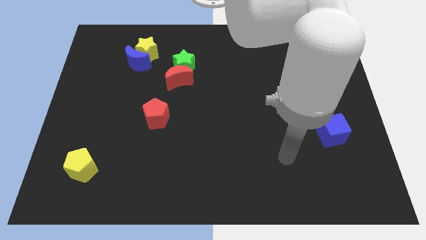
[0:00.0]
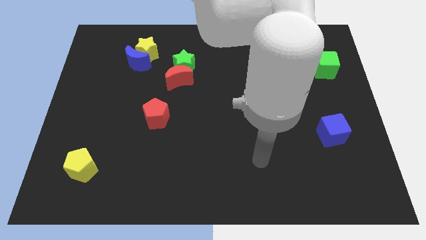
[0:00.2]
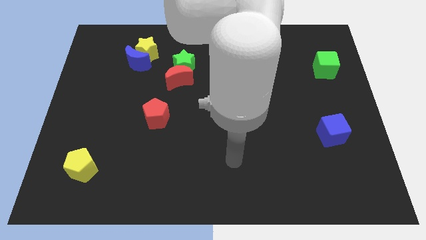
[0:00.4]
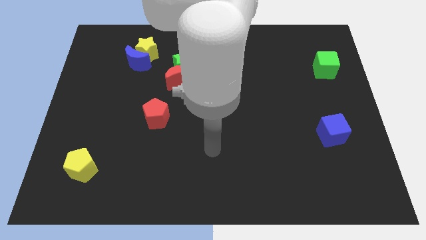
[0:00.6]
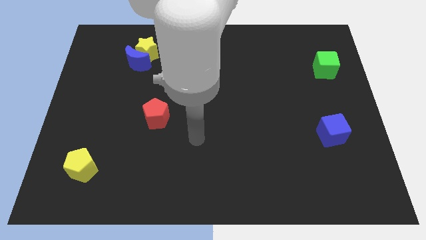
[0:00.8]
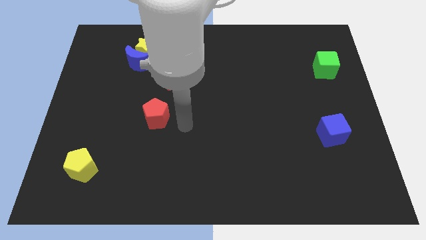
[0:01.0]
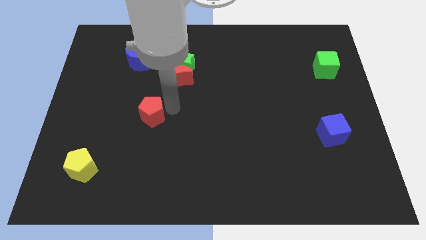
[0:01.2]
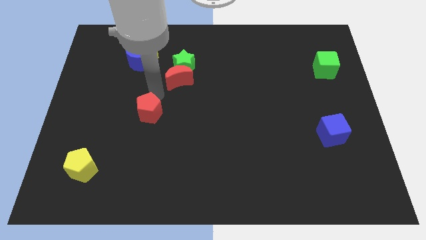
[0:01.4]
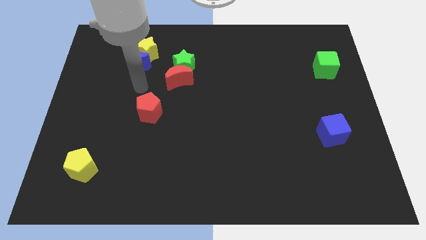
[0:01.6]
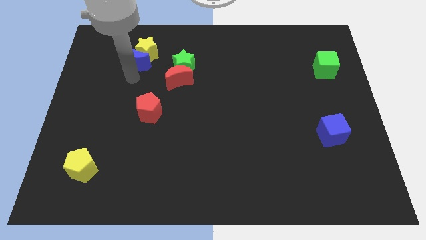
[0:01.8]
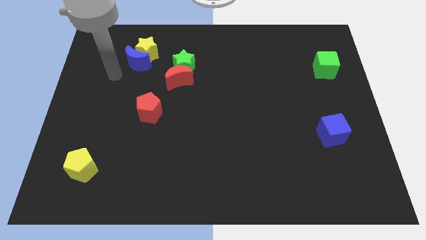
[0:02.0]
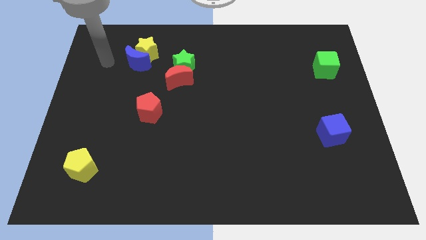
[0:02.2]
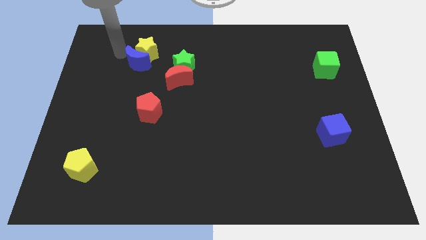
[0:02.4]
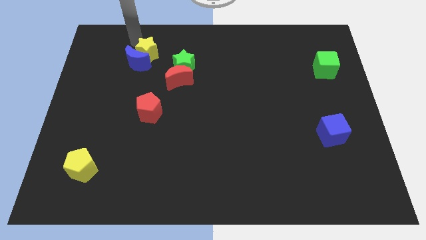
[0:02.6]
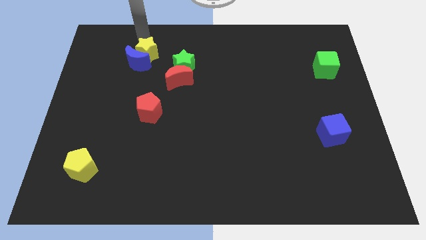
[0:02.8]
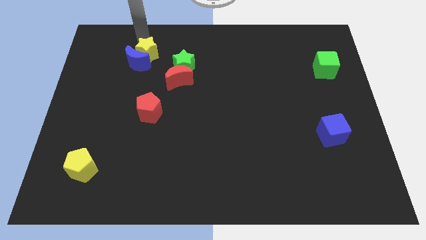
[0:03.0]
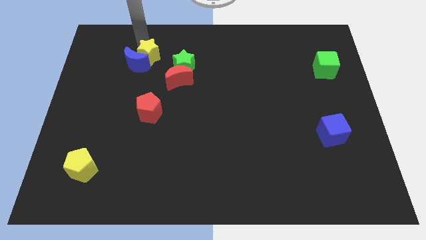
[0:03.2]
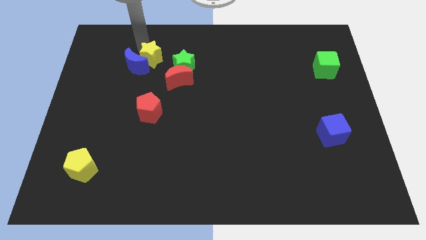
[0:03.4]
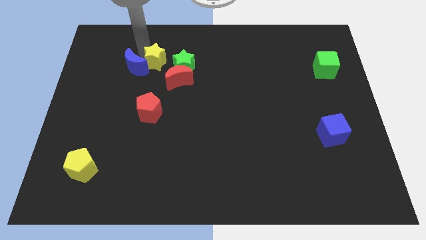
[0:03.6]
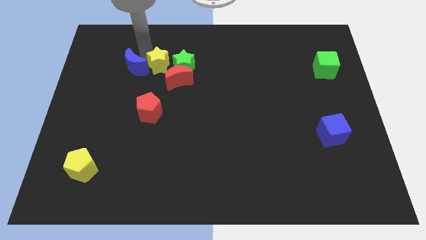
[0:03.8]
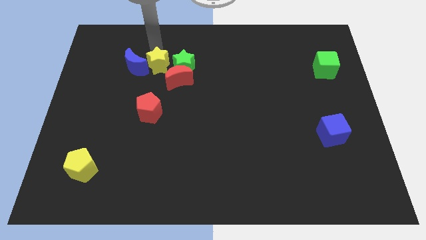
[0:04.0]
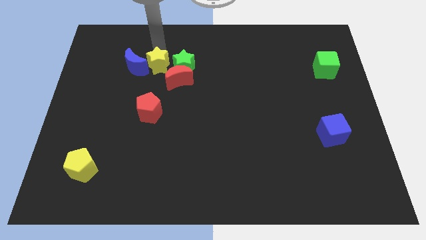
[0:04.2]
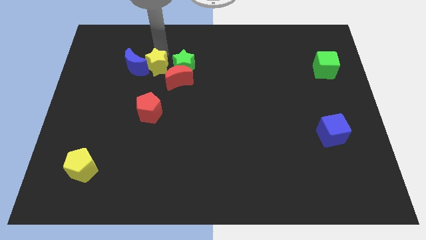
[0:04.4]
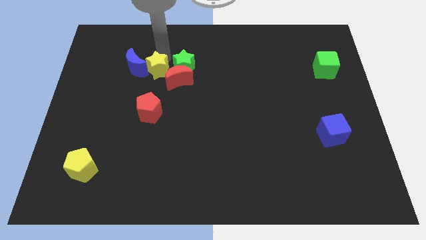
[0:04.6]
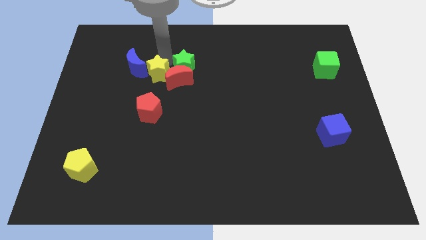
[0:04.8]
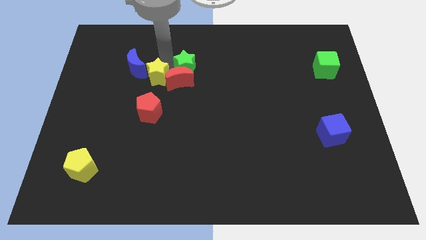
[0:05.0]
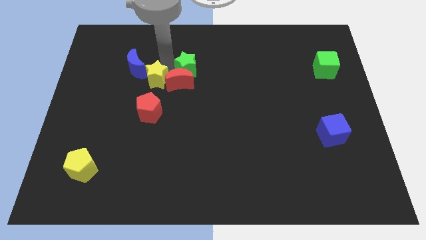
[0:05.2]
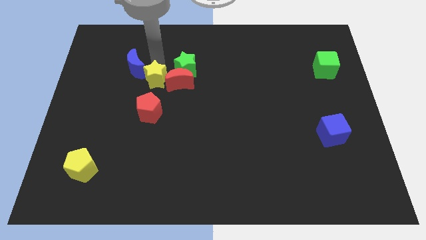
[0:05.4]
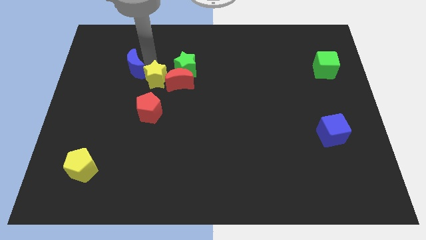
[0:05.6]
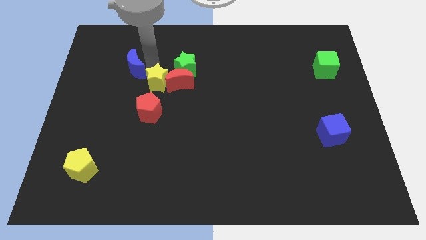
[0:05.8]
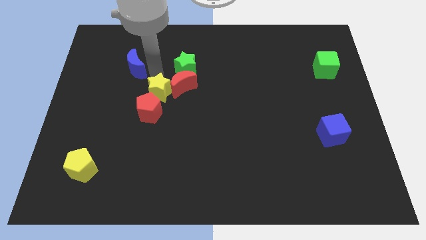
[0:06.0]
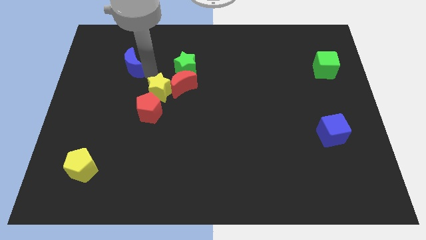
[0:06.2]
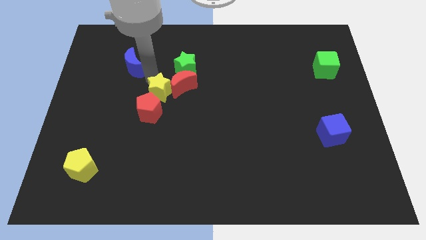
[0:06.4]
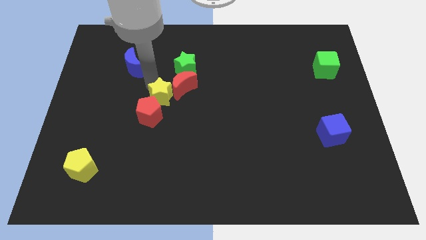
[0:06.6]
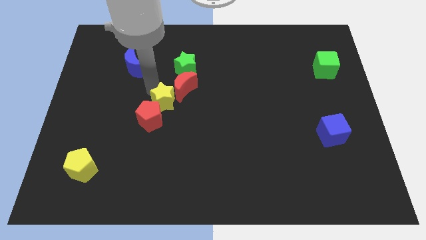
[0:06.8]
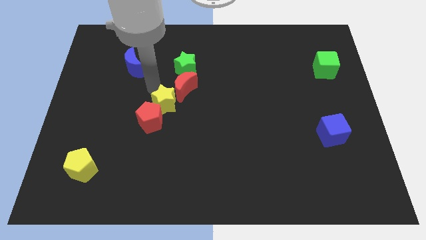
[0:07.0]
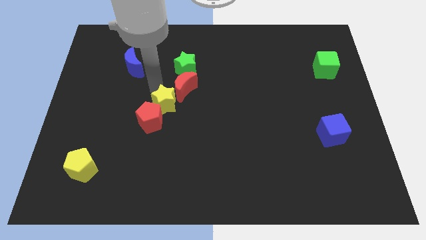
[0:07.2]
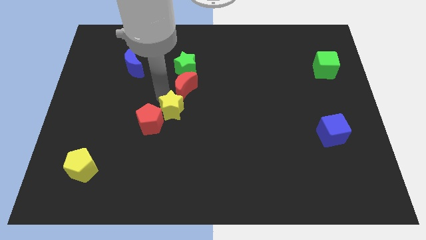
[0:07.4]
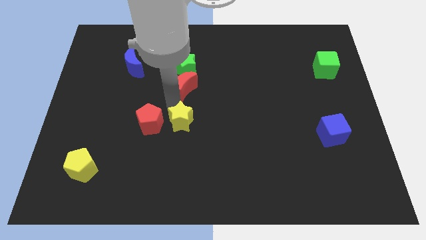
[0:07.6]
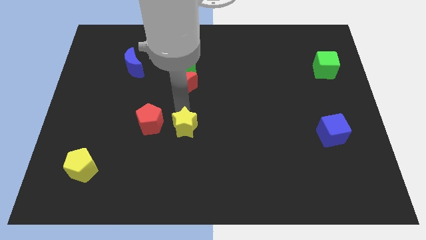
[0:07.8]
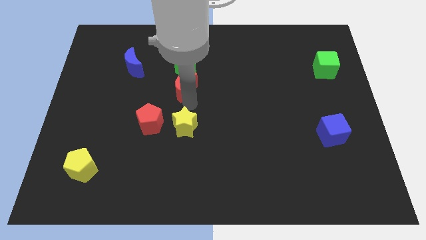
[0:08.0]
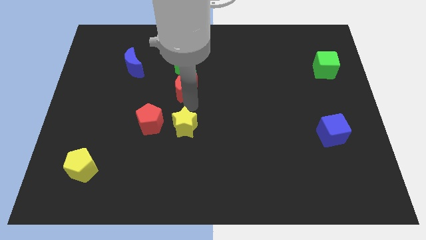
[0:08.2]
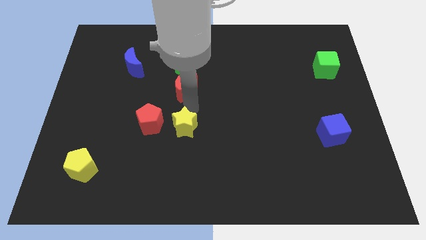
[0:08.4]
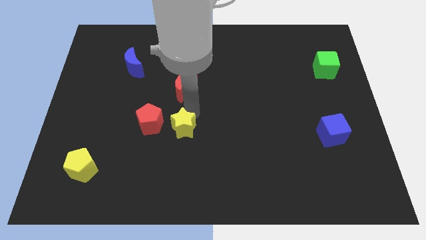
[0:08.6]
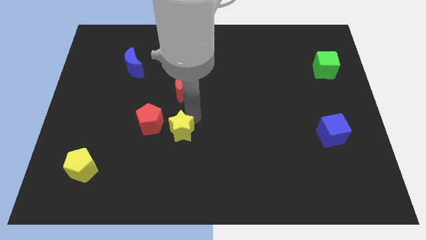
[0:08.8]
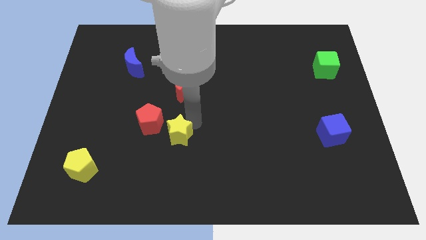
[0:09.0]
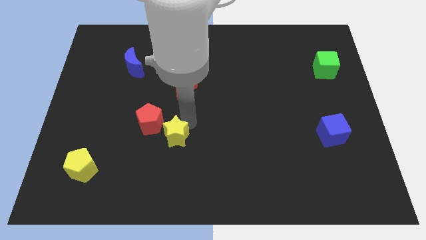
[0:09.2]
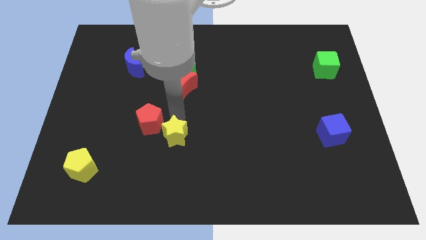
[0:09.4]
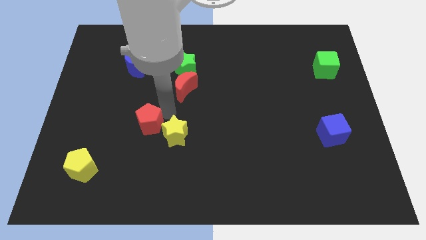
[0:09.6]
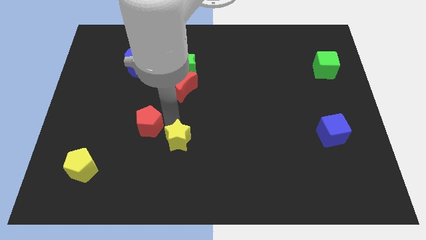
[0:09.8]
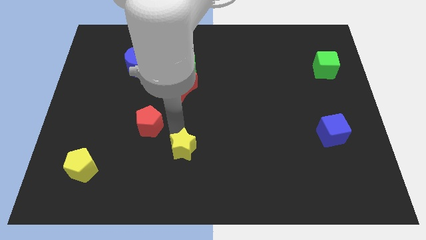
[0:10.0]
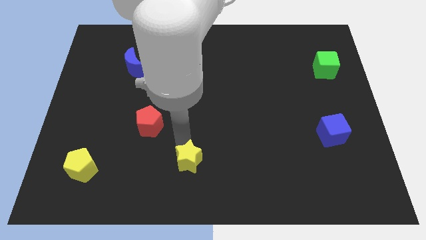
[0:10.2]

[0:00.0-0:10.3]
put the yellow star to the bottom side

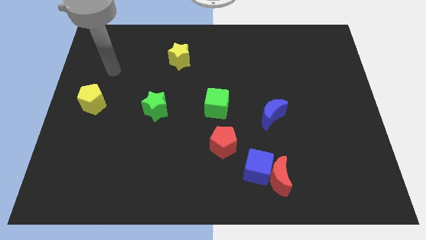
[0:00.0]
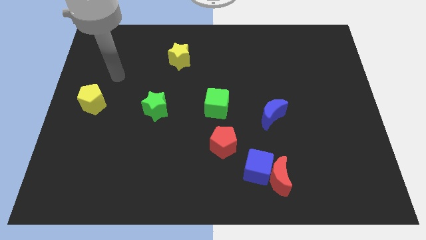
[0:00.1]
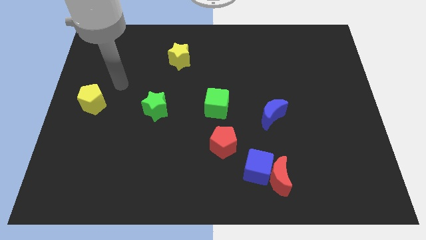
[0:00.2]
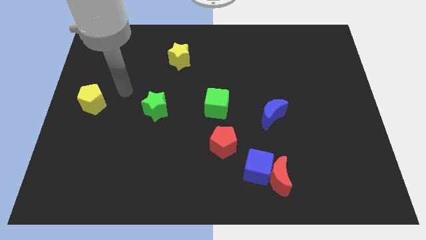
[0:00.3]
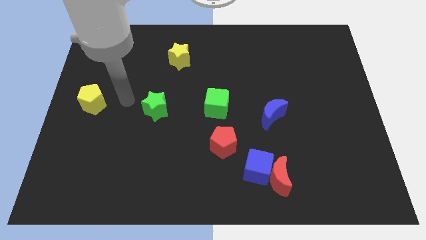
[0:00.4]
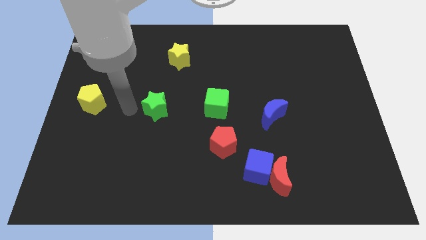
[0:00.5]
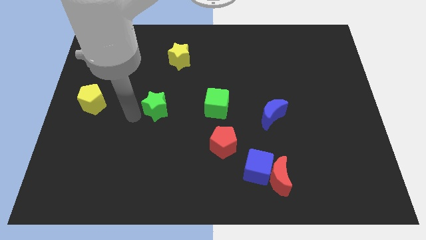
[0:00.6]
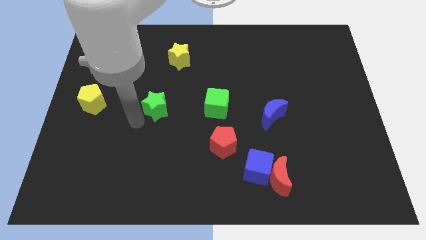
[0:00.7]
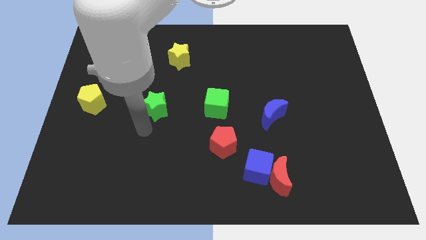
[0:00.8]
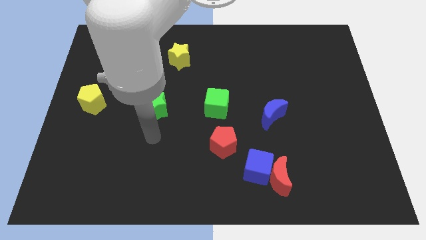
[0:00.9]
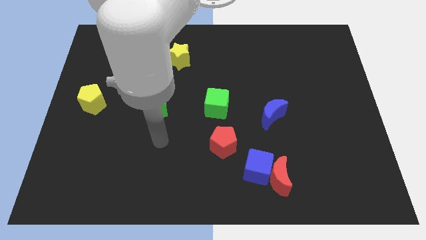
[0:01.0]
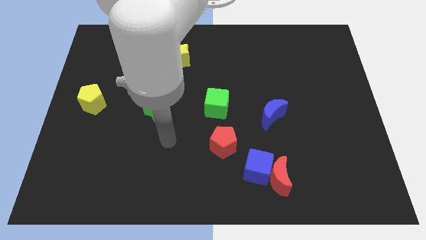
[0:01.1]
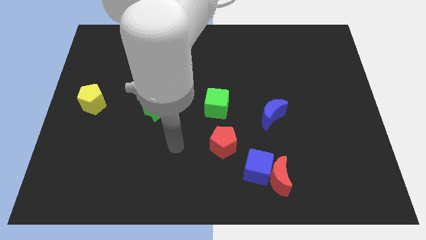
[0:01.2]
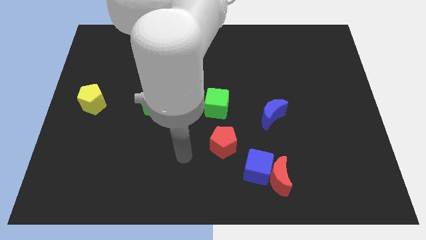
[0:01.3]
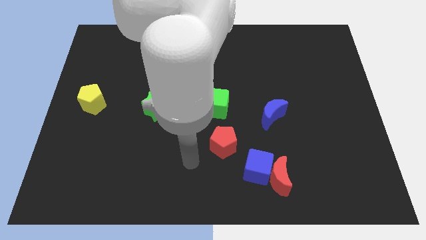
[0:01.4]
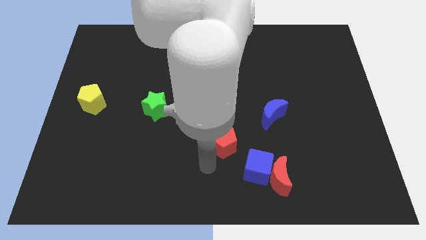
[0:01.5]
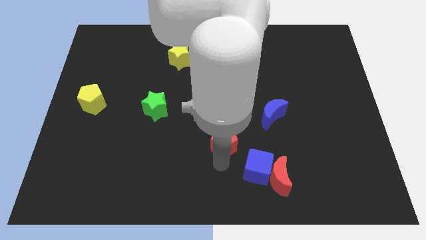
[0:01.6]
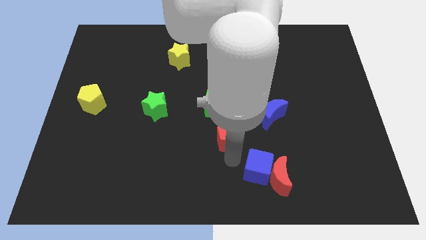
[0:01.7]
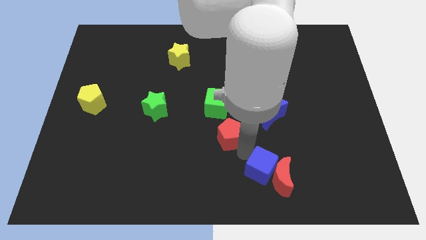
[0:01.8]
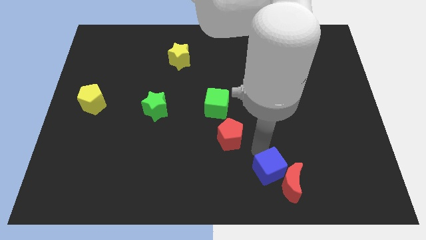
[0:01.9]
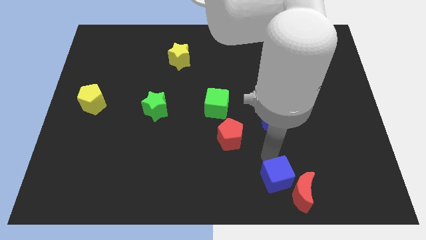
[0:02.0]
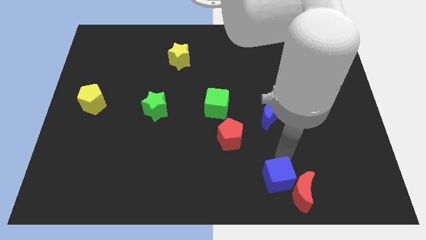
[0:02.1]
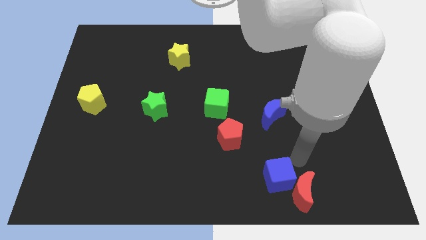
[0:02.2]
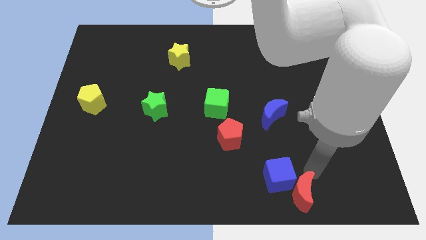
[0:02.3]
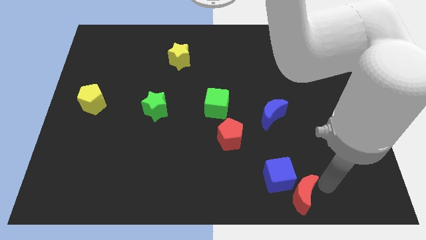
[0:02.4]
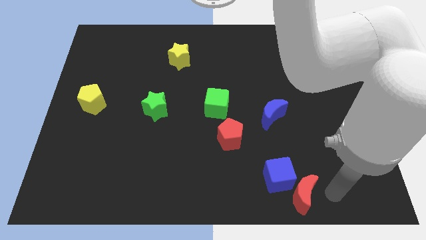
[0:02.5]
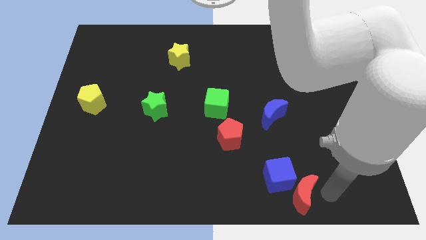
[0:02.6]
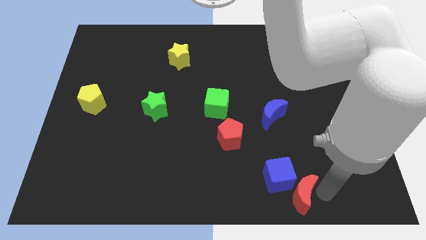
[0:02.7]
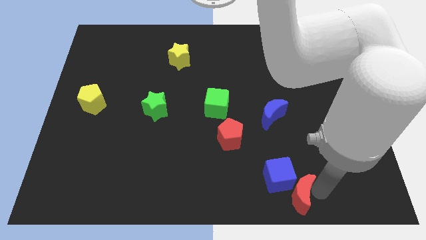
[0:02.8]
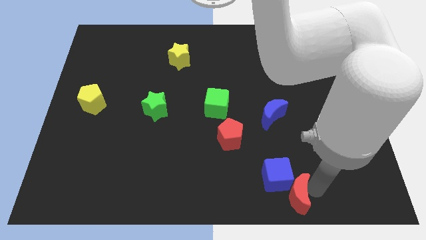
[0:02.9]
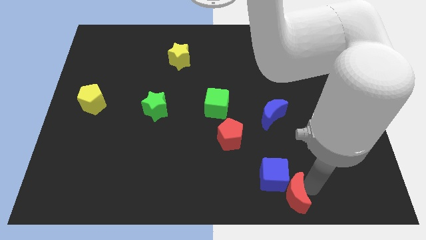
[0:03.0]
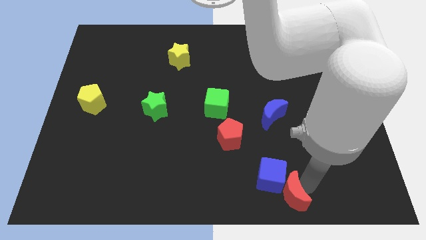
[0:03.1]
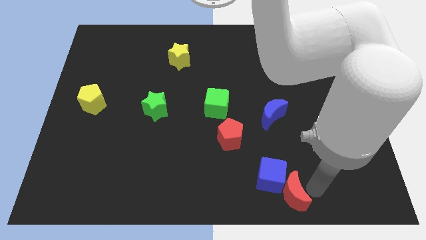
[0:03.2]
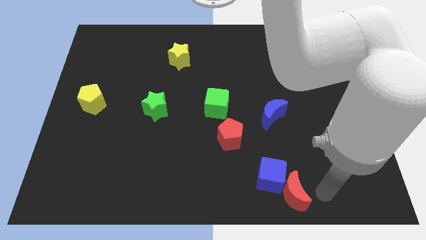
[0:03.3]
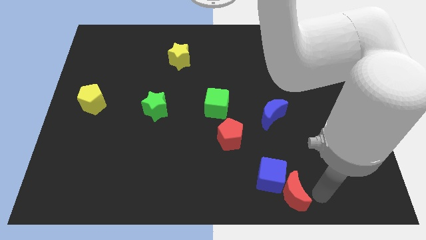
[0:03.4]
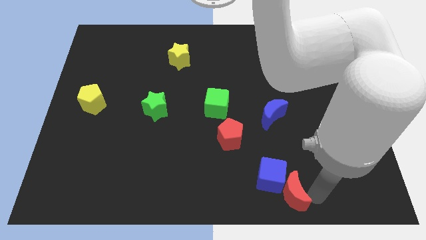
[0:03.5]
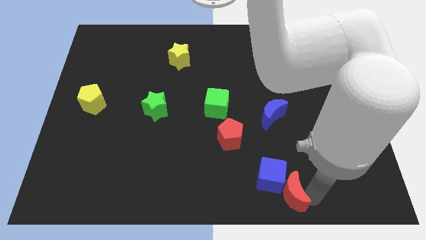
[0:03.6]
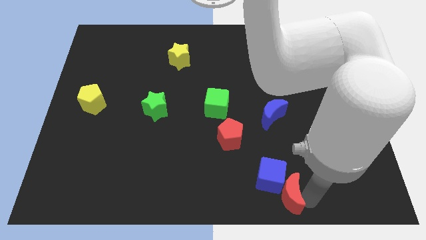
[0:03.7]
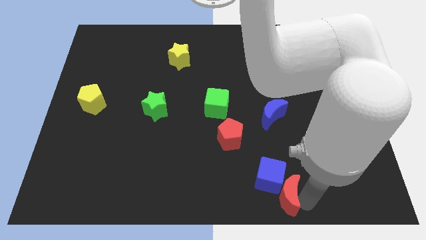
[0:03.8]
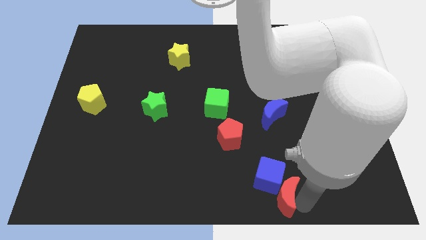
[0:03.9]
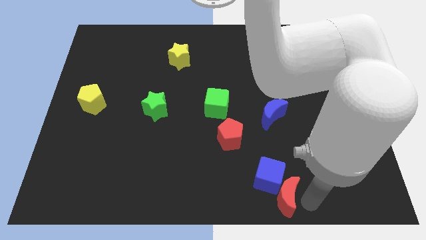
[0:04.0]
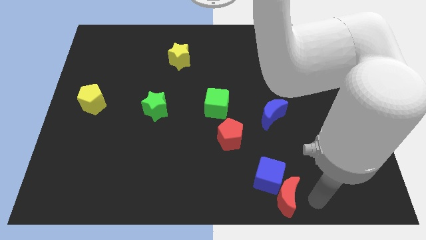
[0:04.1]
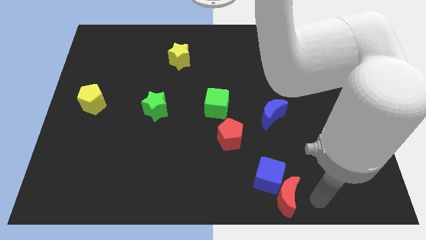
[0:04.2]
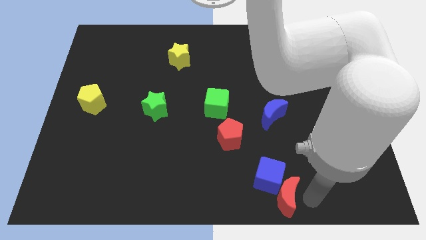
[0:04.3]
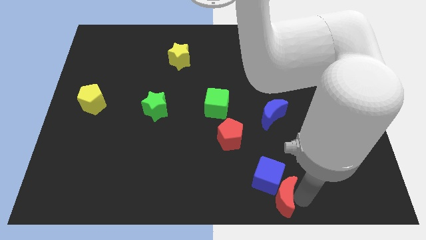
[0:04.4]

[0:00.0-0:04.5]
push the red moon to the bottom side
